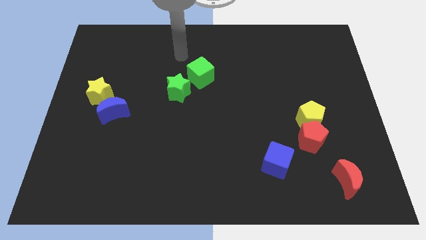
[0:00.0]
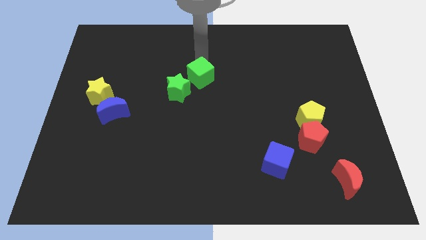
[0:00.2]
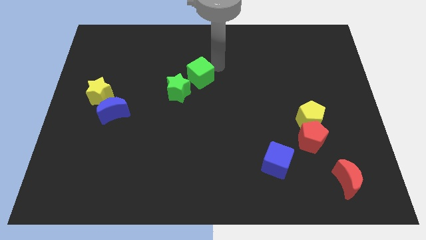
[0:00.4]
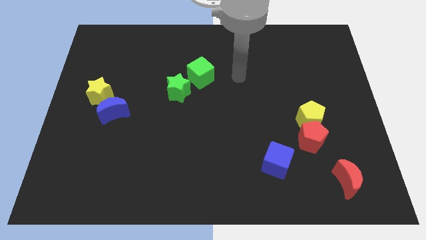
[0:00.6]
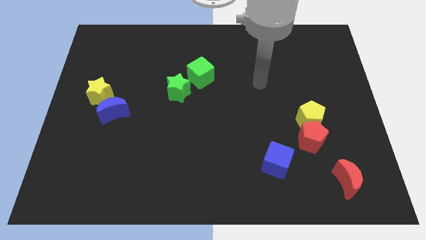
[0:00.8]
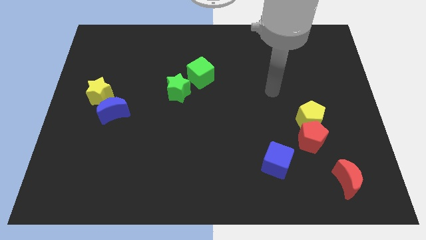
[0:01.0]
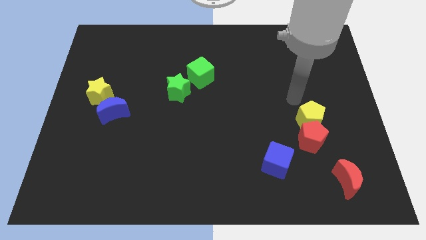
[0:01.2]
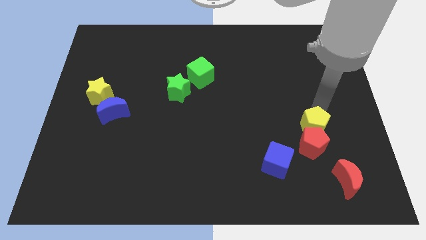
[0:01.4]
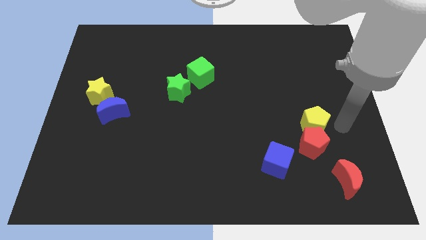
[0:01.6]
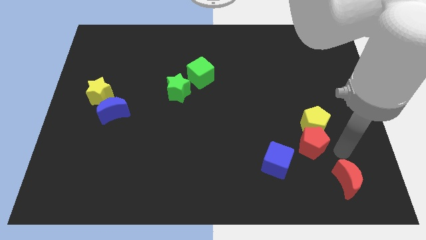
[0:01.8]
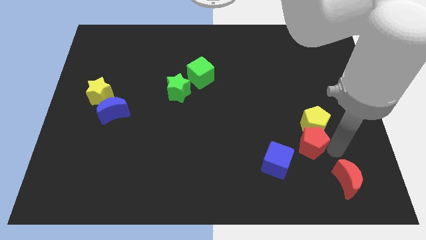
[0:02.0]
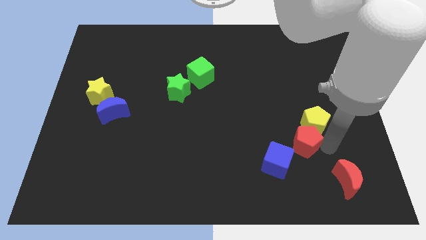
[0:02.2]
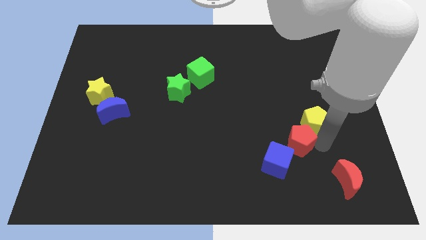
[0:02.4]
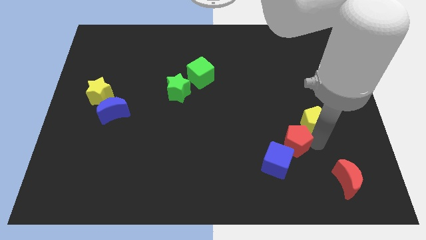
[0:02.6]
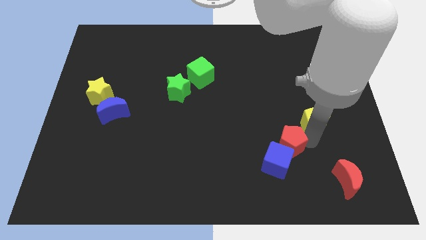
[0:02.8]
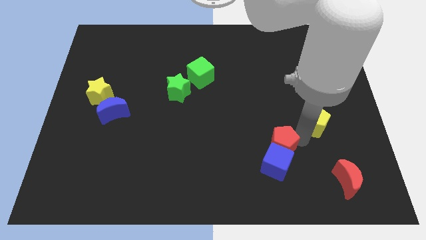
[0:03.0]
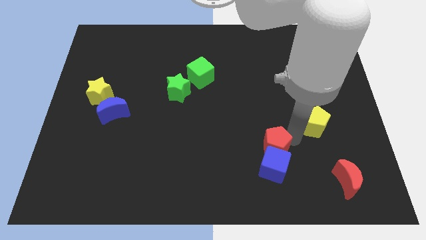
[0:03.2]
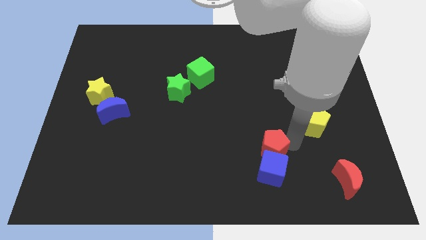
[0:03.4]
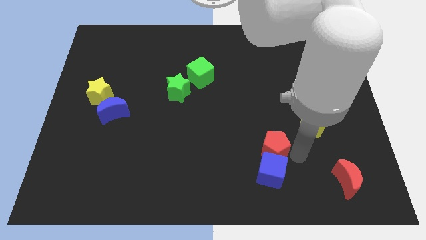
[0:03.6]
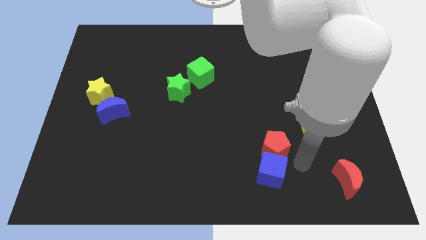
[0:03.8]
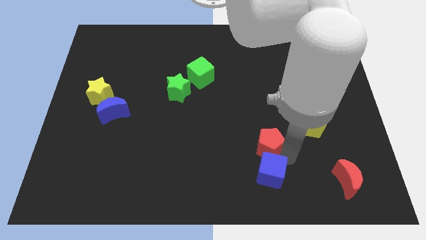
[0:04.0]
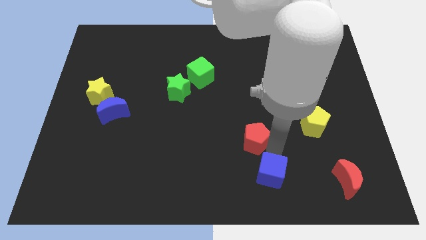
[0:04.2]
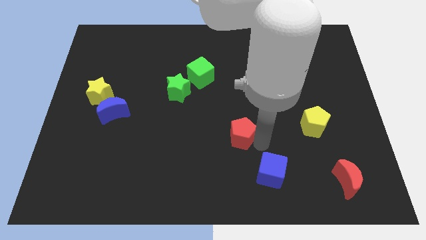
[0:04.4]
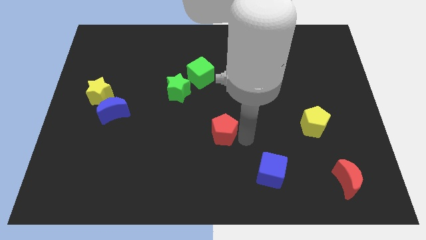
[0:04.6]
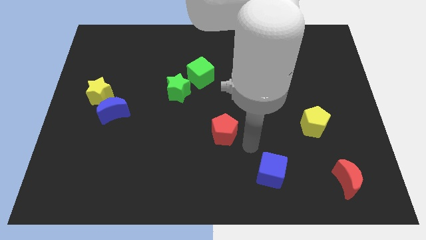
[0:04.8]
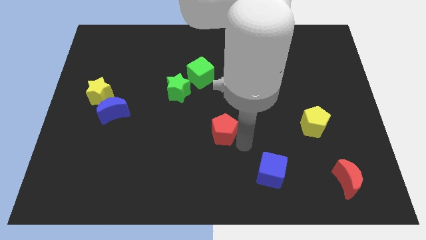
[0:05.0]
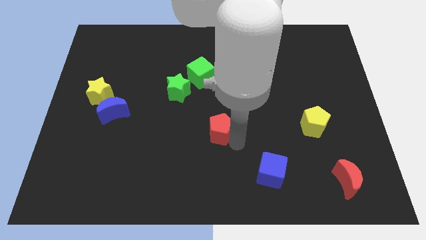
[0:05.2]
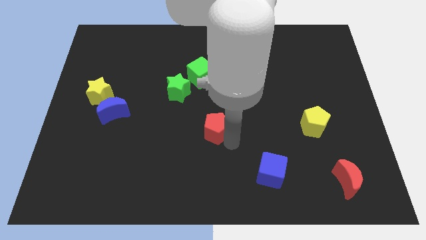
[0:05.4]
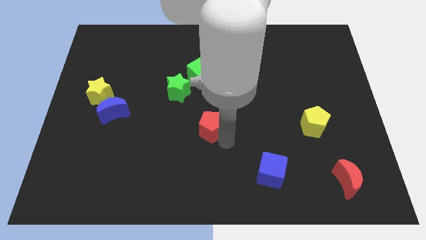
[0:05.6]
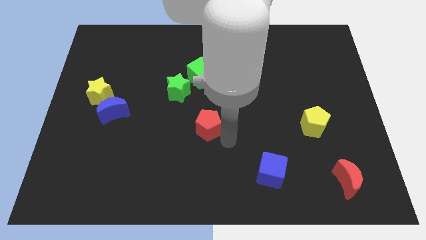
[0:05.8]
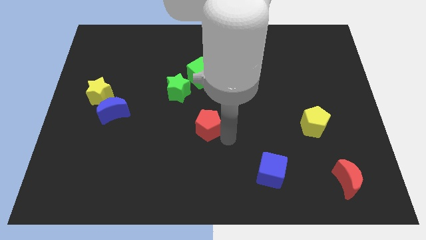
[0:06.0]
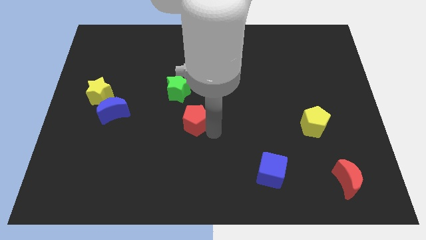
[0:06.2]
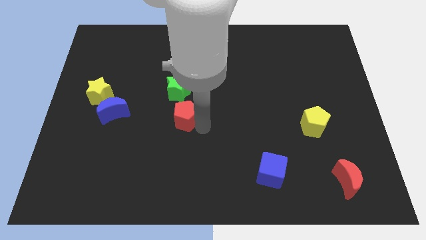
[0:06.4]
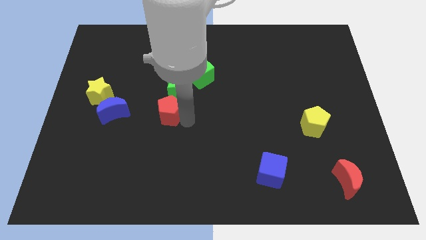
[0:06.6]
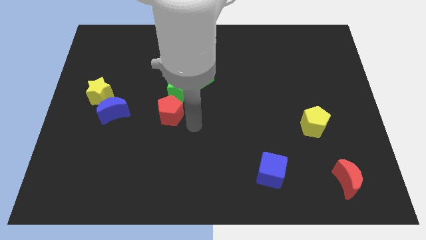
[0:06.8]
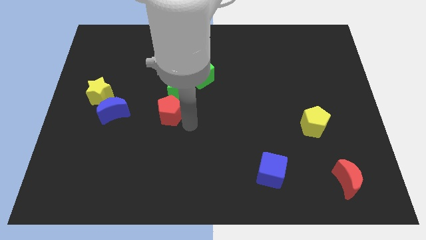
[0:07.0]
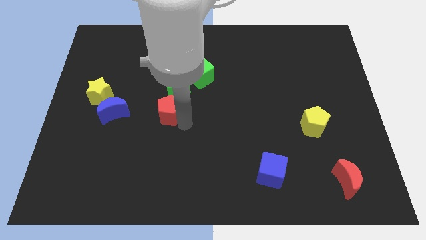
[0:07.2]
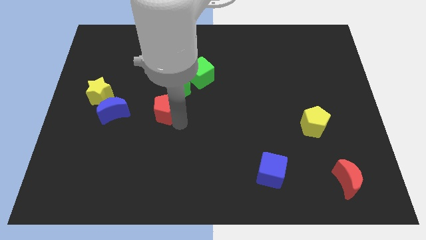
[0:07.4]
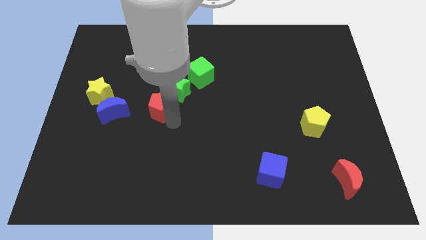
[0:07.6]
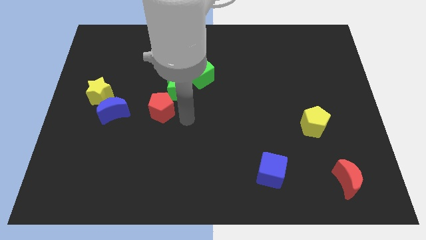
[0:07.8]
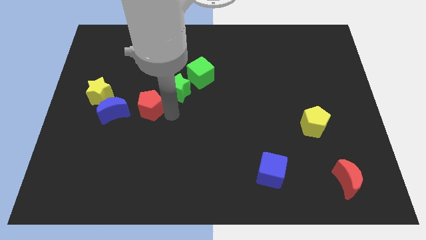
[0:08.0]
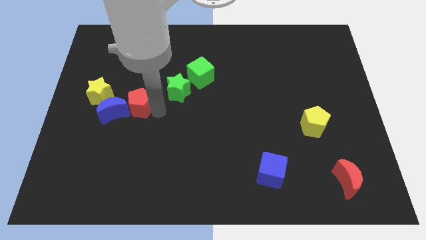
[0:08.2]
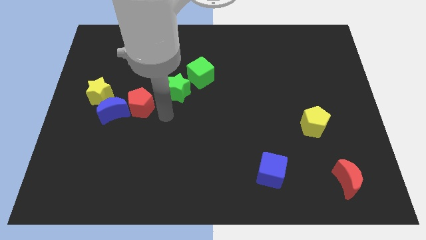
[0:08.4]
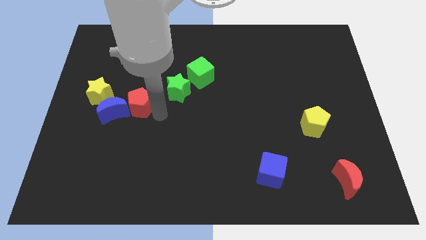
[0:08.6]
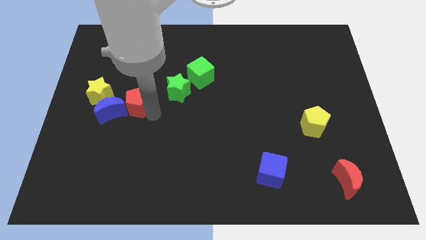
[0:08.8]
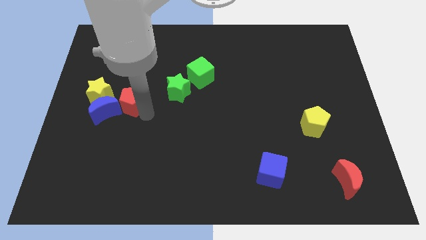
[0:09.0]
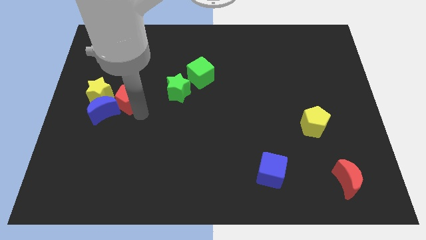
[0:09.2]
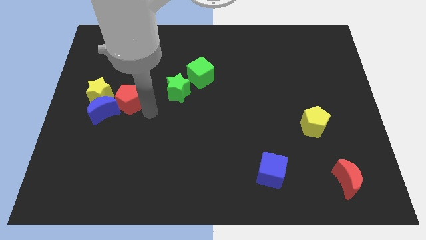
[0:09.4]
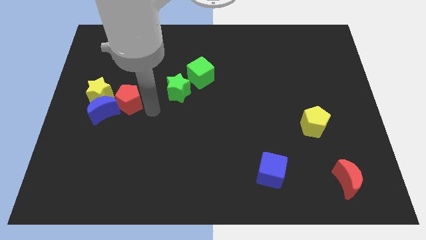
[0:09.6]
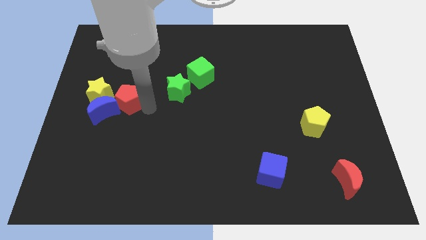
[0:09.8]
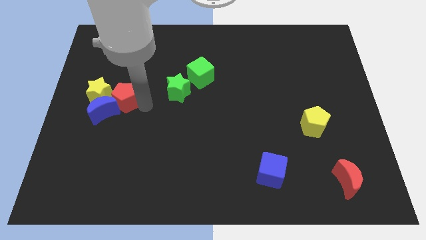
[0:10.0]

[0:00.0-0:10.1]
move the red pentagon close to the yellow star

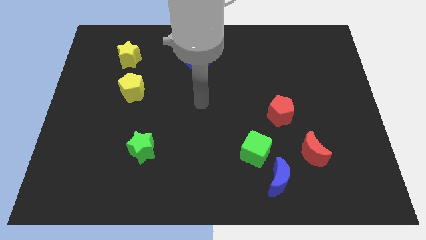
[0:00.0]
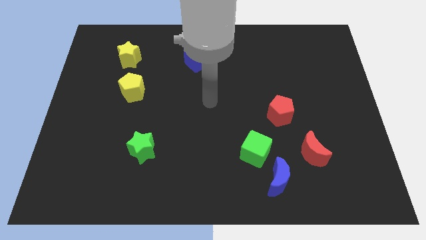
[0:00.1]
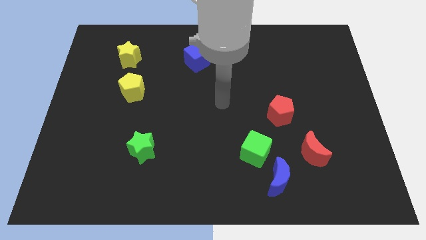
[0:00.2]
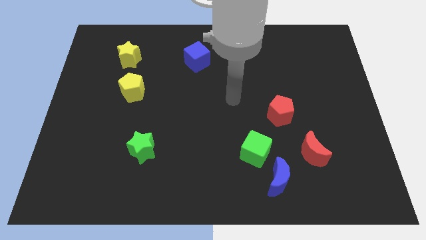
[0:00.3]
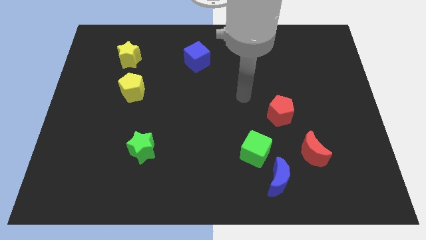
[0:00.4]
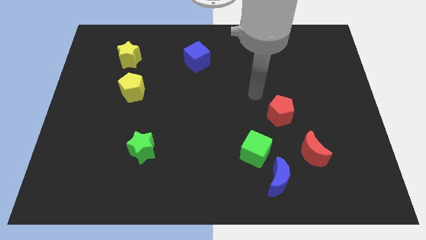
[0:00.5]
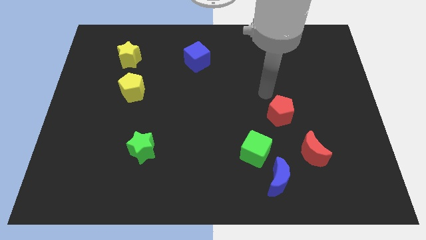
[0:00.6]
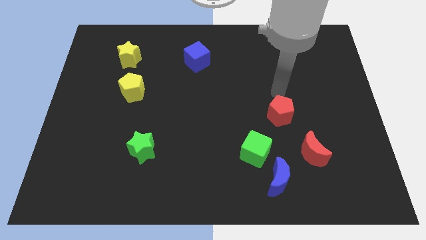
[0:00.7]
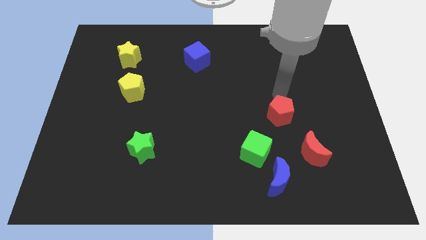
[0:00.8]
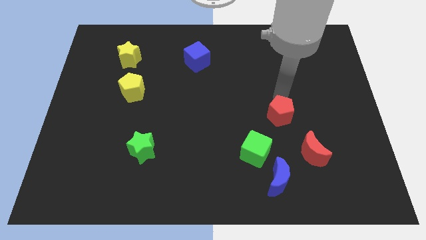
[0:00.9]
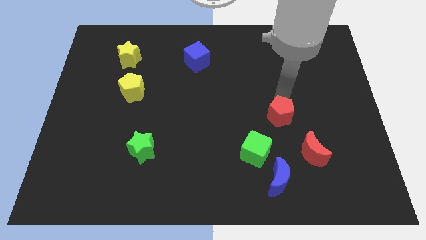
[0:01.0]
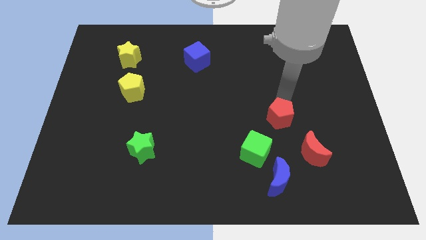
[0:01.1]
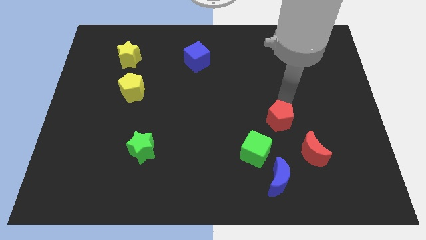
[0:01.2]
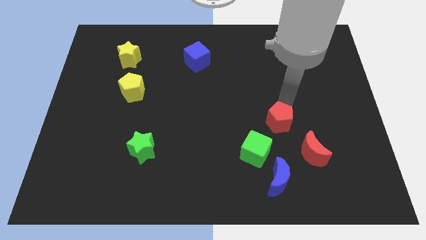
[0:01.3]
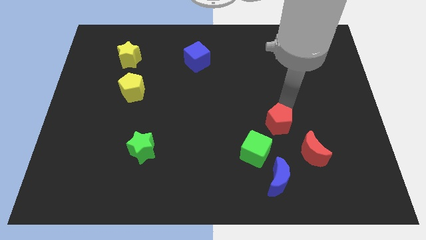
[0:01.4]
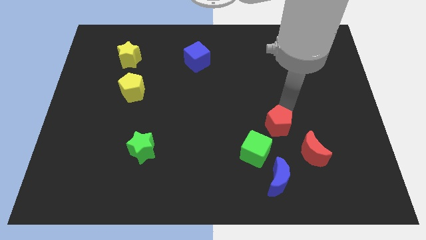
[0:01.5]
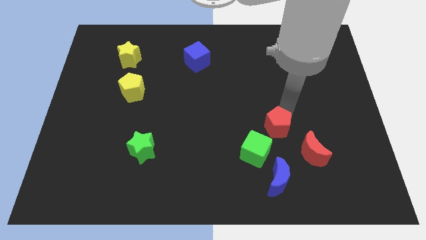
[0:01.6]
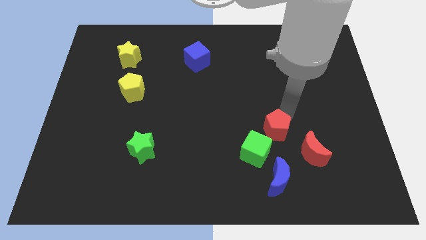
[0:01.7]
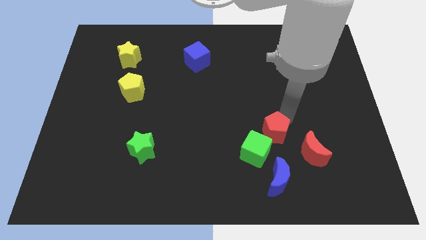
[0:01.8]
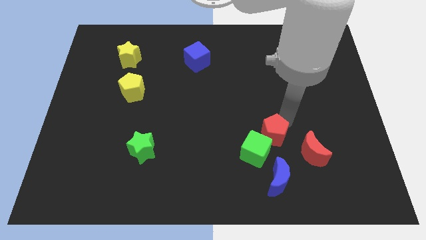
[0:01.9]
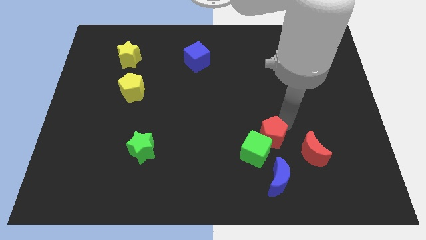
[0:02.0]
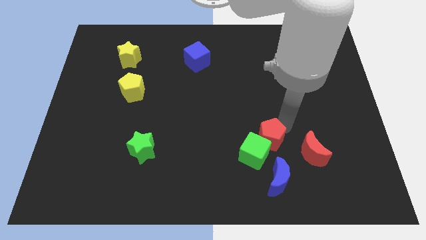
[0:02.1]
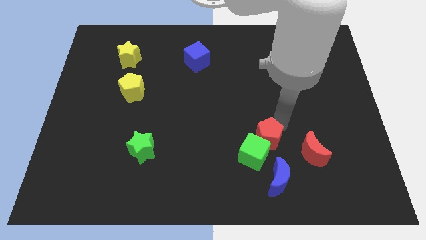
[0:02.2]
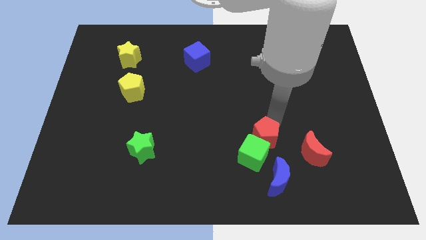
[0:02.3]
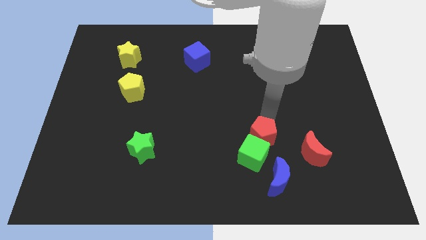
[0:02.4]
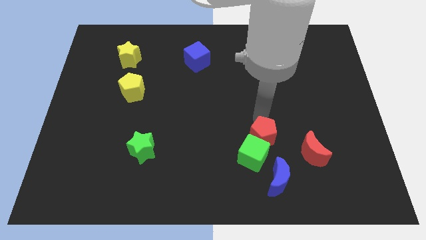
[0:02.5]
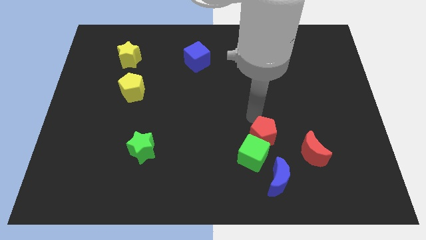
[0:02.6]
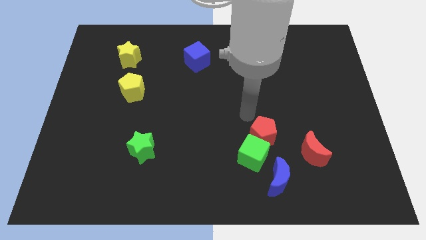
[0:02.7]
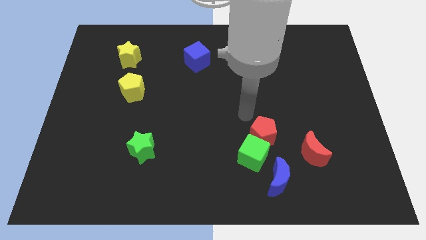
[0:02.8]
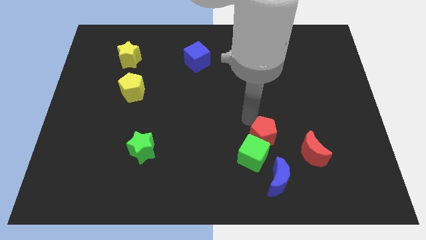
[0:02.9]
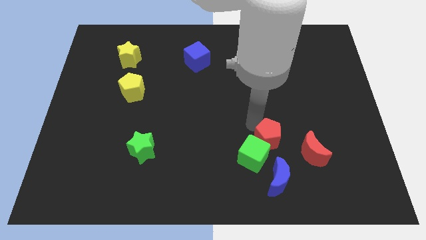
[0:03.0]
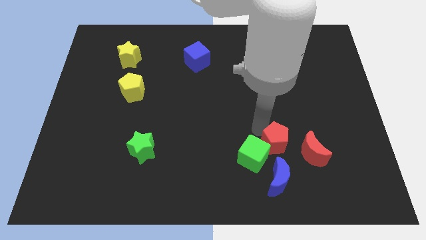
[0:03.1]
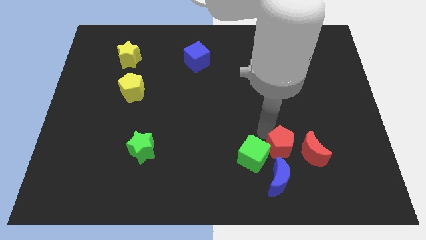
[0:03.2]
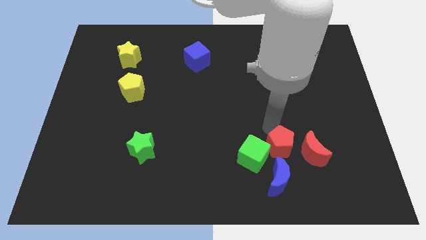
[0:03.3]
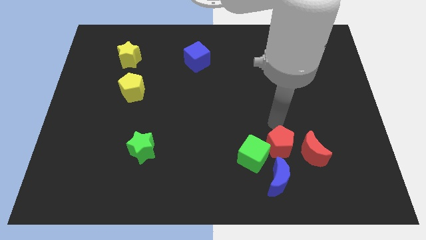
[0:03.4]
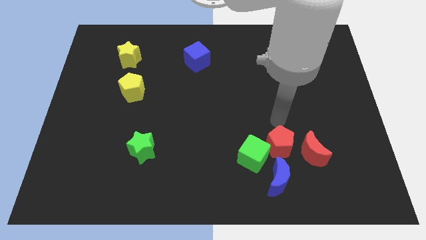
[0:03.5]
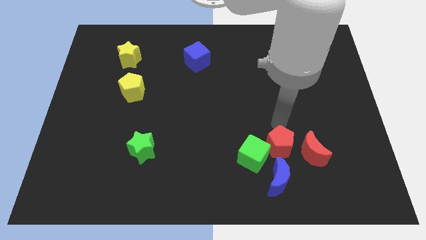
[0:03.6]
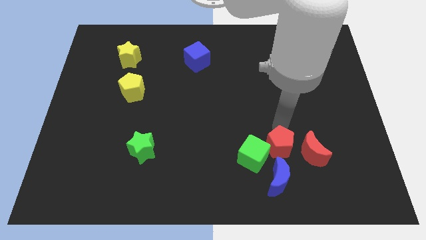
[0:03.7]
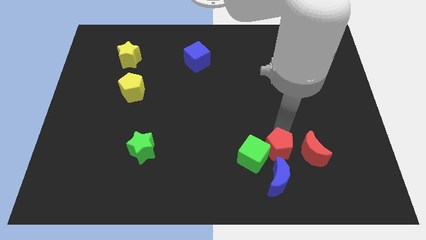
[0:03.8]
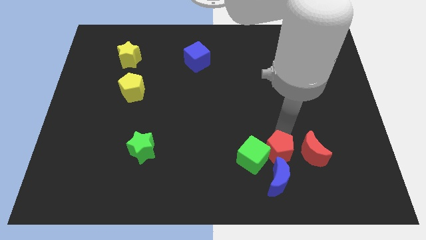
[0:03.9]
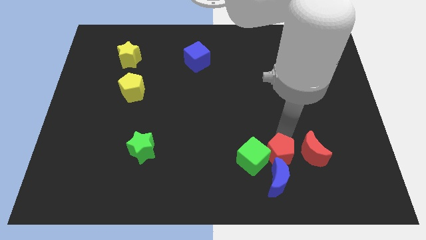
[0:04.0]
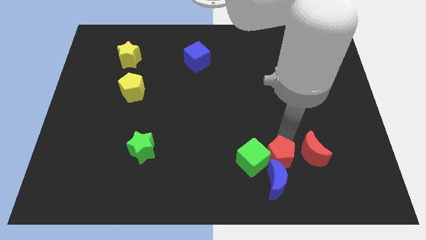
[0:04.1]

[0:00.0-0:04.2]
push the red pentagon next to the blue moon
